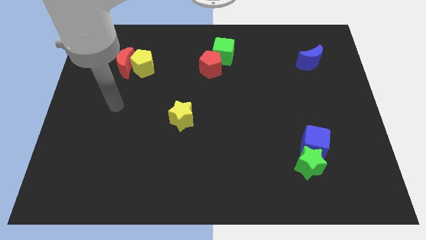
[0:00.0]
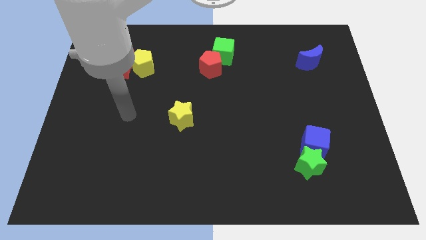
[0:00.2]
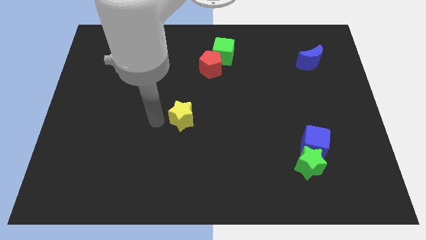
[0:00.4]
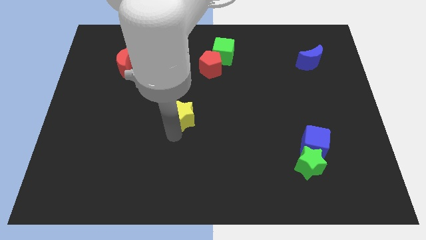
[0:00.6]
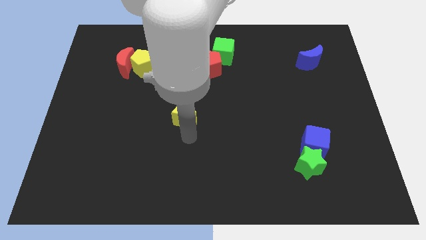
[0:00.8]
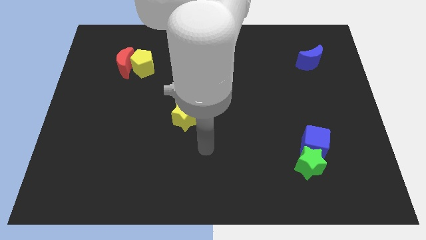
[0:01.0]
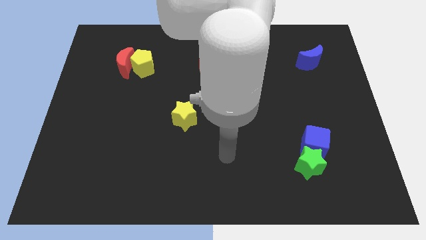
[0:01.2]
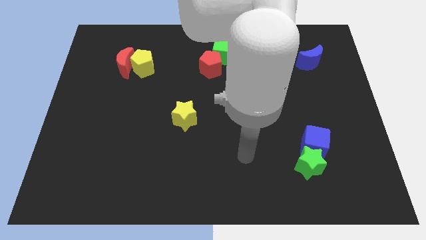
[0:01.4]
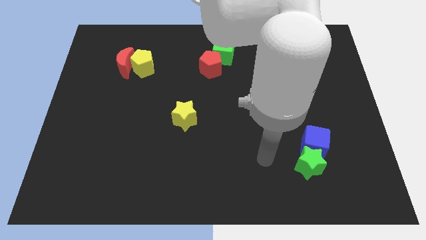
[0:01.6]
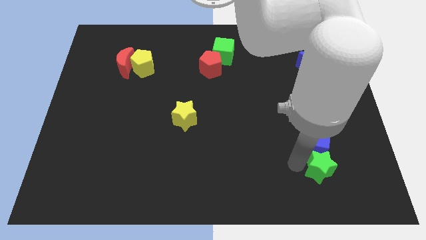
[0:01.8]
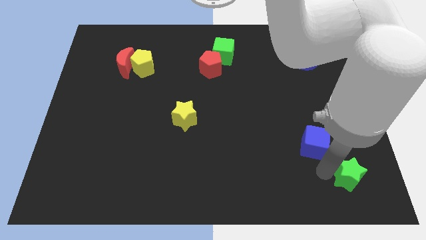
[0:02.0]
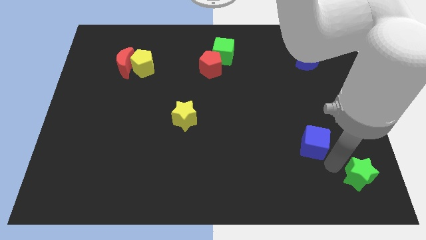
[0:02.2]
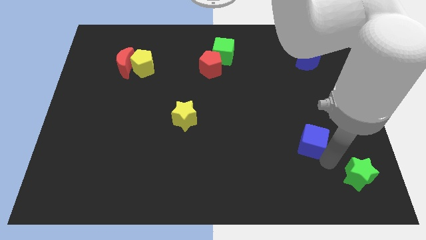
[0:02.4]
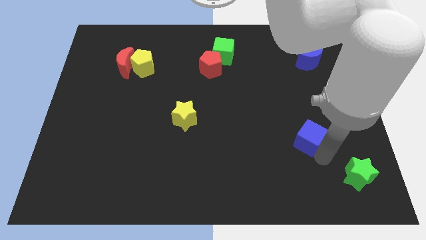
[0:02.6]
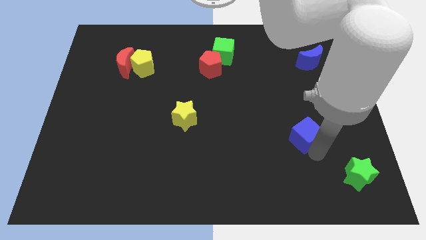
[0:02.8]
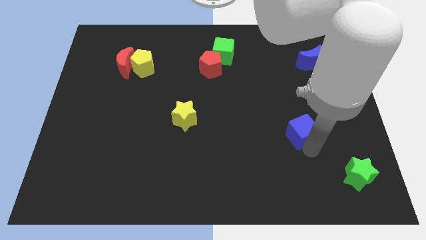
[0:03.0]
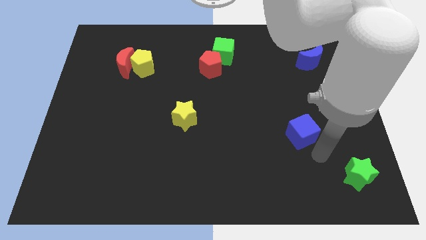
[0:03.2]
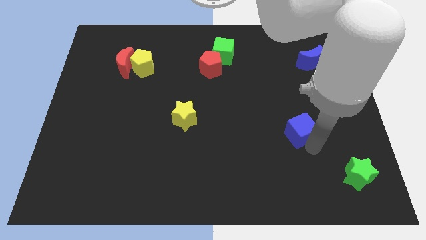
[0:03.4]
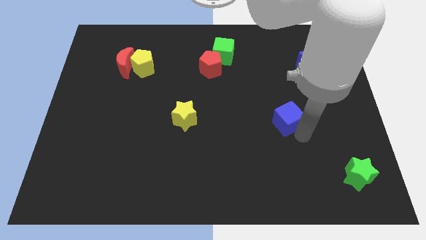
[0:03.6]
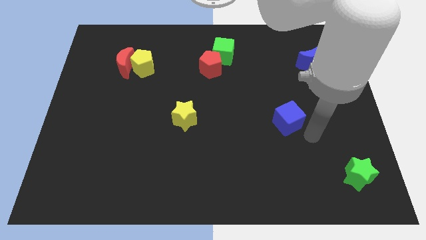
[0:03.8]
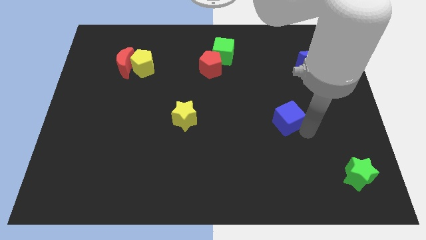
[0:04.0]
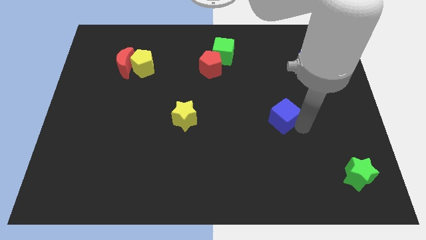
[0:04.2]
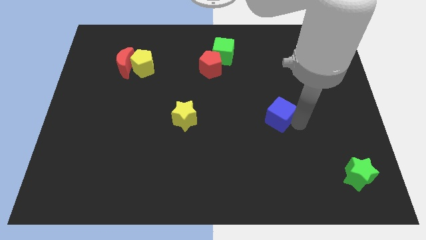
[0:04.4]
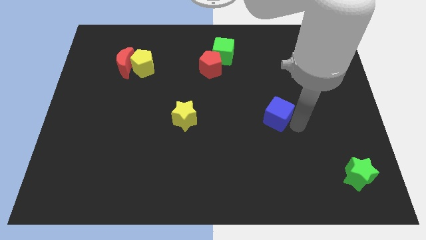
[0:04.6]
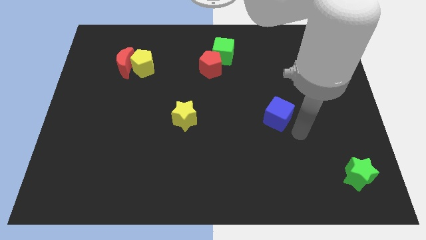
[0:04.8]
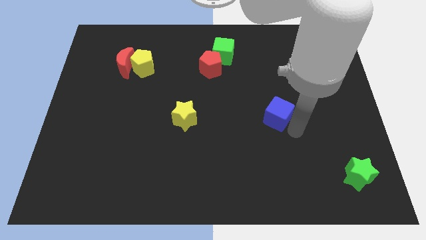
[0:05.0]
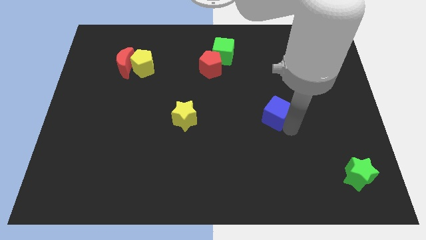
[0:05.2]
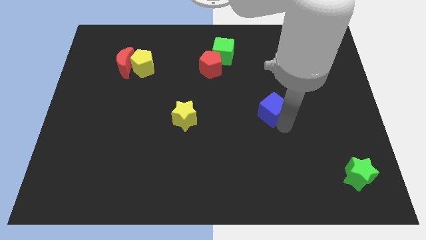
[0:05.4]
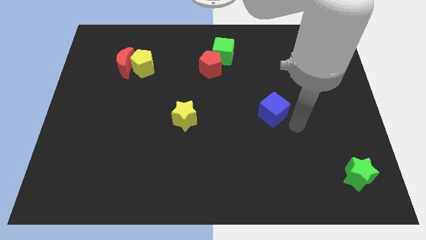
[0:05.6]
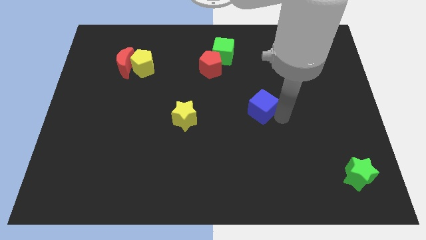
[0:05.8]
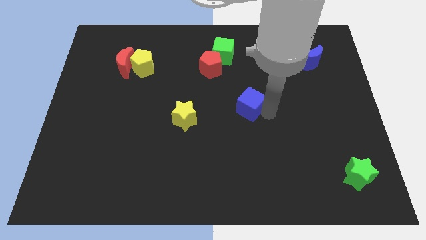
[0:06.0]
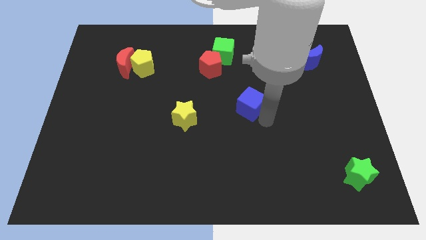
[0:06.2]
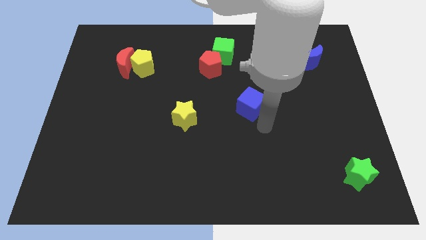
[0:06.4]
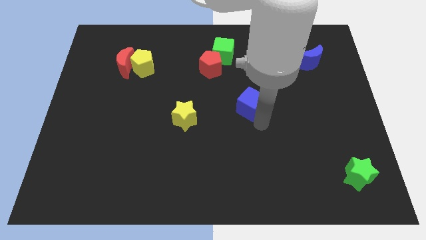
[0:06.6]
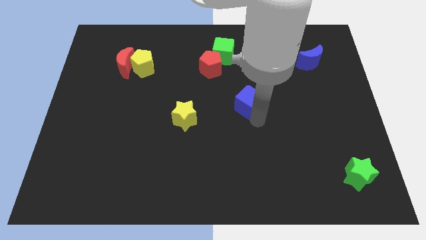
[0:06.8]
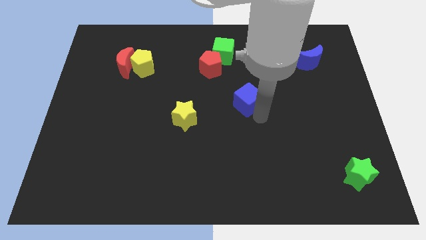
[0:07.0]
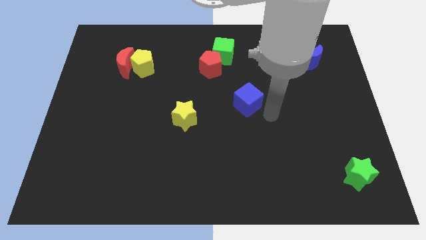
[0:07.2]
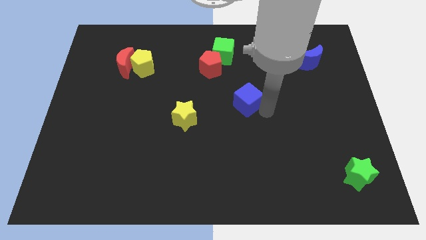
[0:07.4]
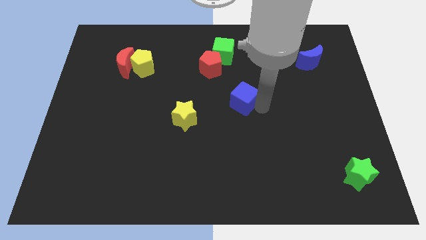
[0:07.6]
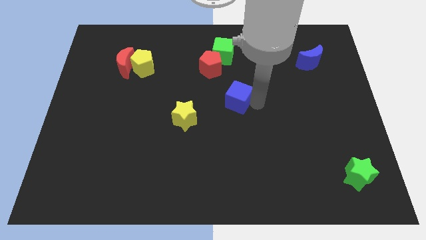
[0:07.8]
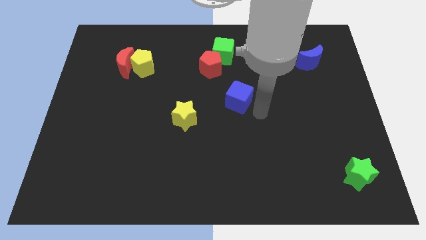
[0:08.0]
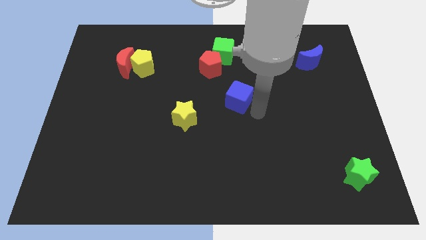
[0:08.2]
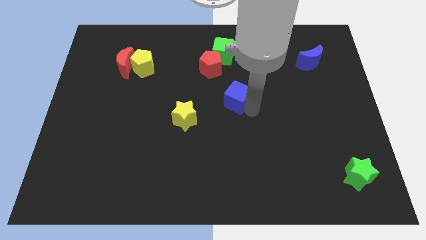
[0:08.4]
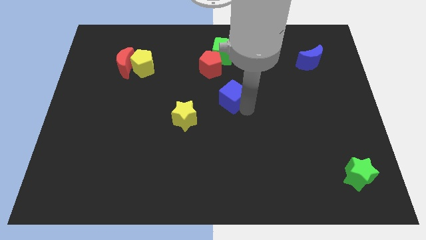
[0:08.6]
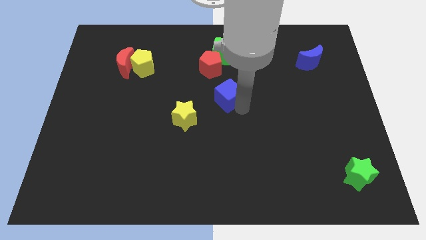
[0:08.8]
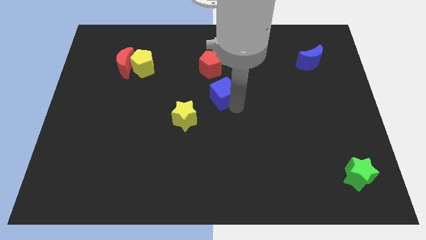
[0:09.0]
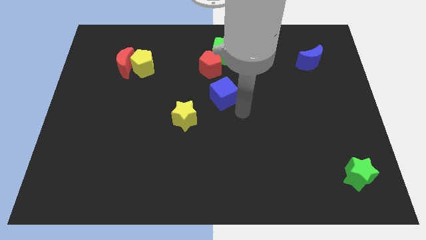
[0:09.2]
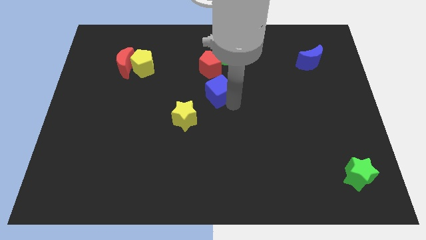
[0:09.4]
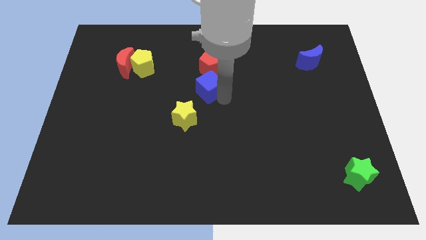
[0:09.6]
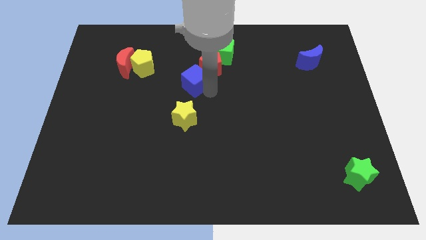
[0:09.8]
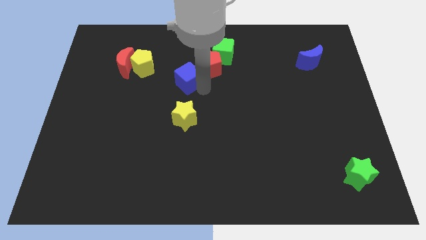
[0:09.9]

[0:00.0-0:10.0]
slide the blue cube right of the yellow pentagon

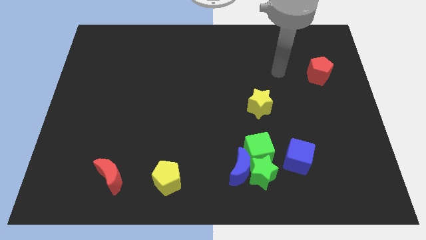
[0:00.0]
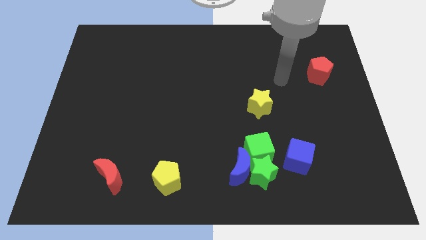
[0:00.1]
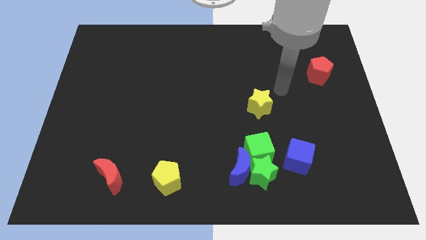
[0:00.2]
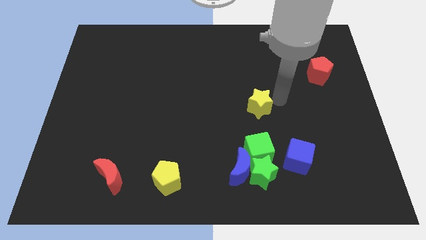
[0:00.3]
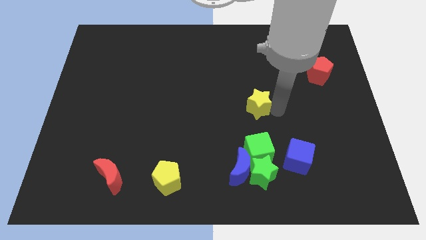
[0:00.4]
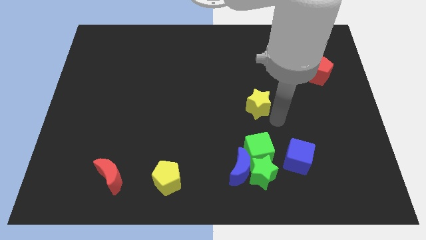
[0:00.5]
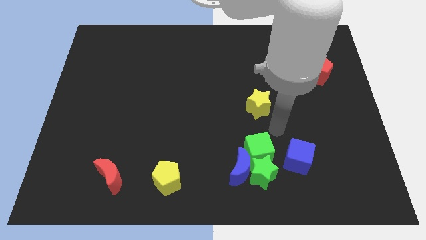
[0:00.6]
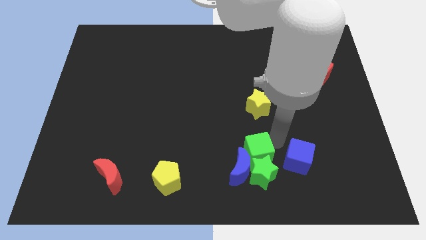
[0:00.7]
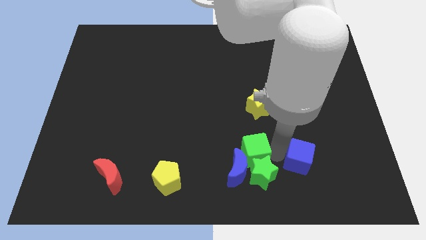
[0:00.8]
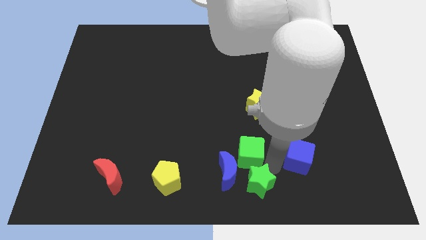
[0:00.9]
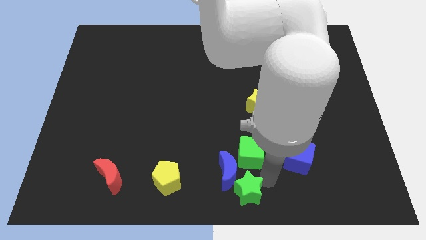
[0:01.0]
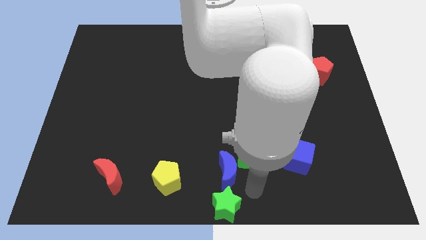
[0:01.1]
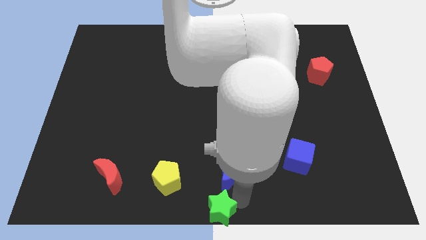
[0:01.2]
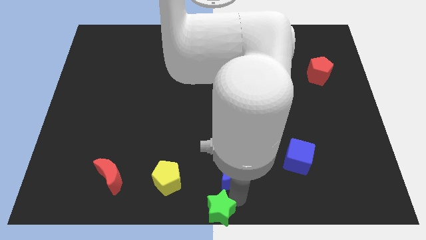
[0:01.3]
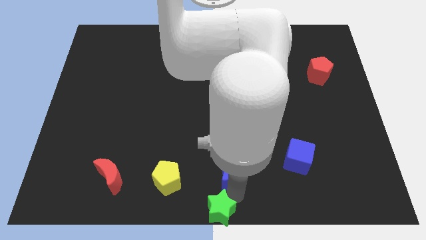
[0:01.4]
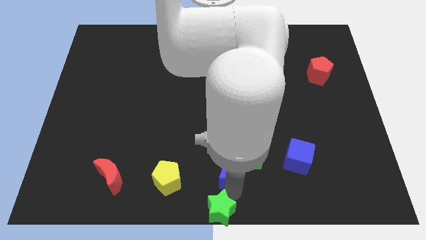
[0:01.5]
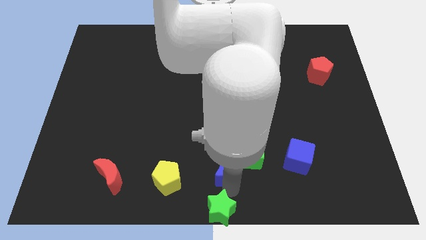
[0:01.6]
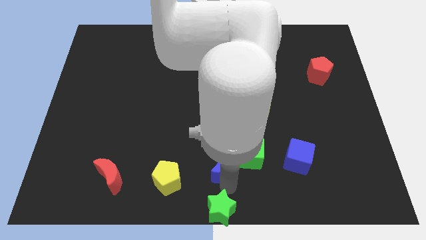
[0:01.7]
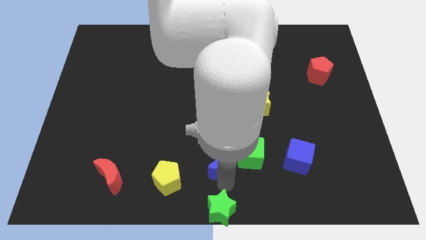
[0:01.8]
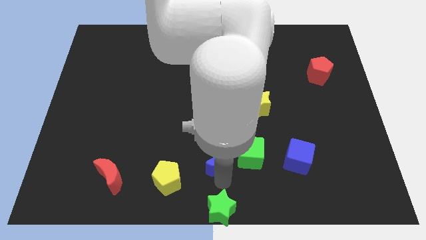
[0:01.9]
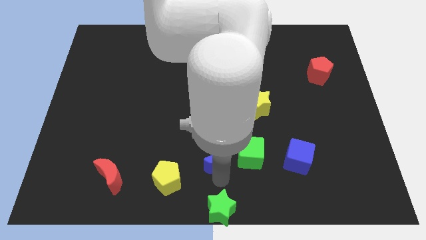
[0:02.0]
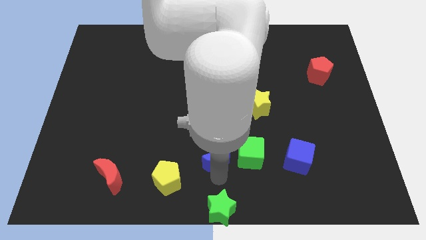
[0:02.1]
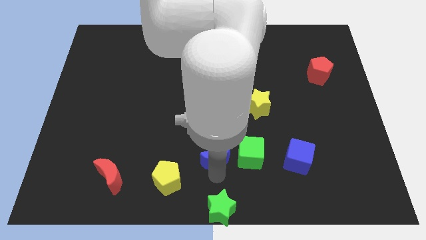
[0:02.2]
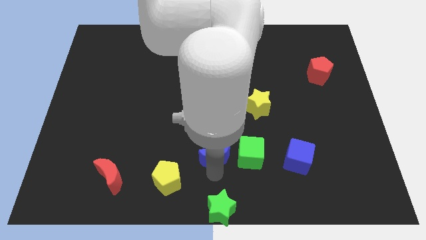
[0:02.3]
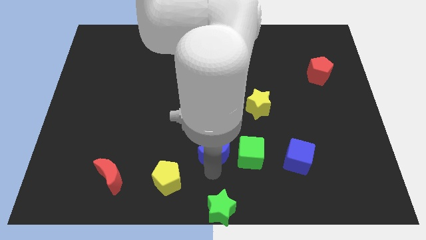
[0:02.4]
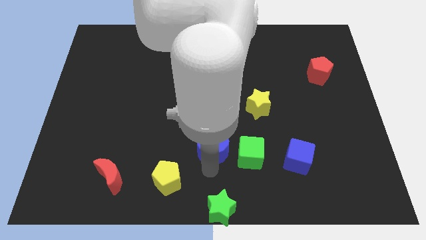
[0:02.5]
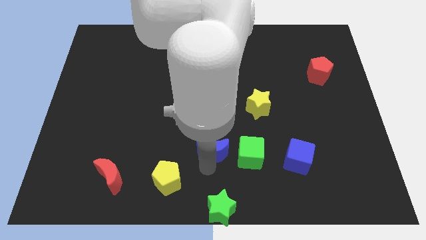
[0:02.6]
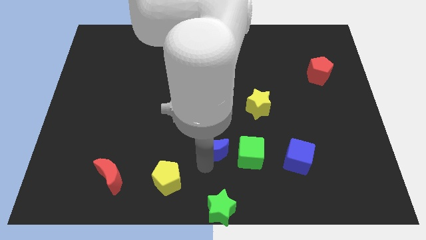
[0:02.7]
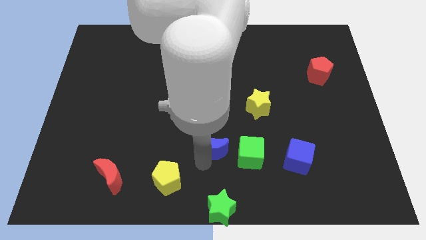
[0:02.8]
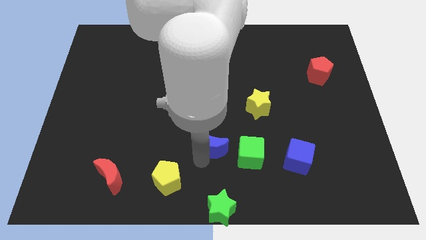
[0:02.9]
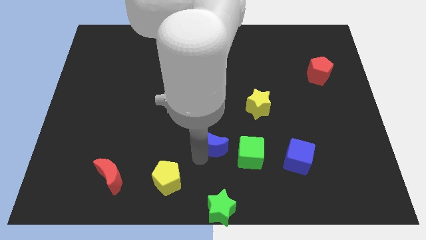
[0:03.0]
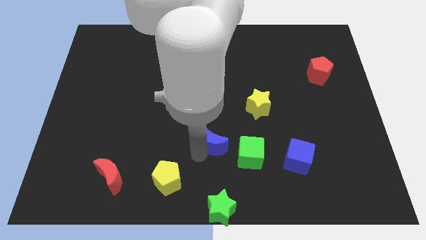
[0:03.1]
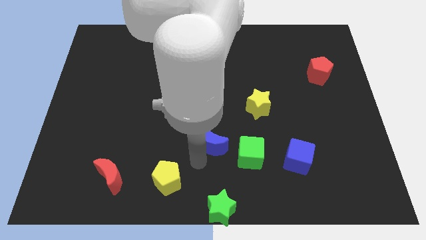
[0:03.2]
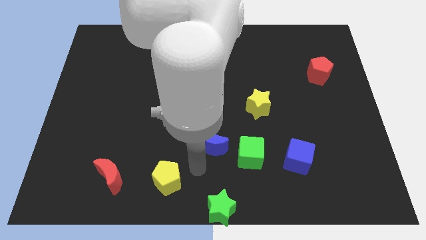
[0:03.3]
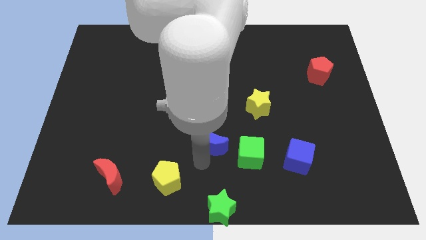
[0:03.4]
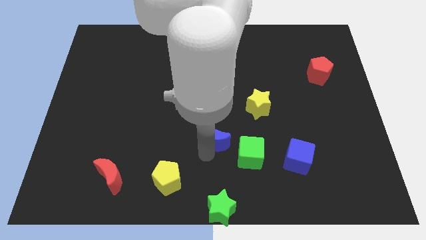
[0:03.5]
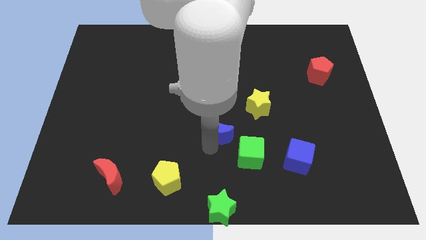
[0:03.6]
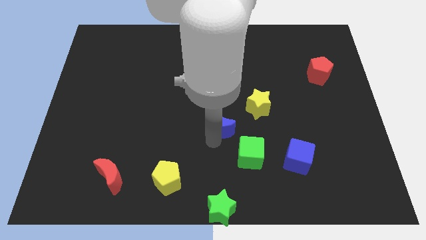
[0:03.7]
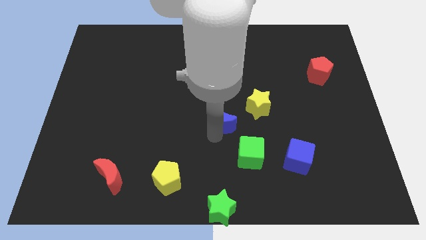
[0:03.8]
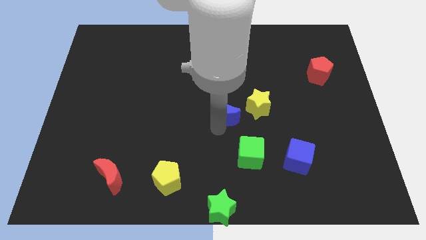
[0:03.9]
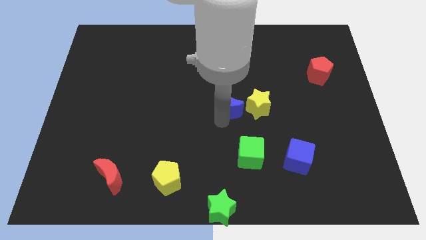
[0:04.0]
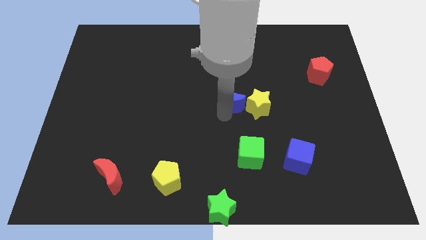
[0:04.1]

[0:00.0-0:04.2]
push the blue moon to the top left side of the yellow star
